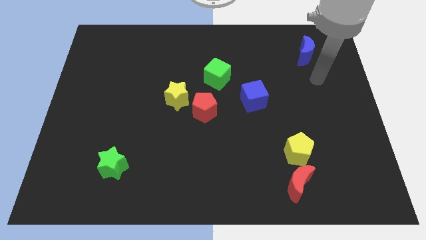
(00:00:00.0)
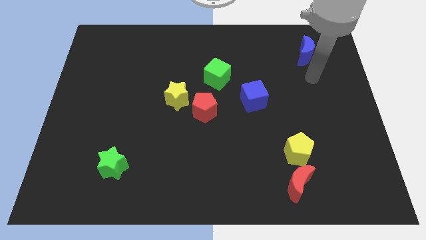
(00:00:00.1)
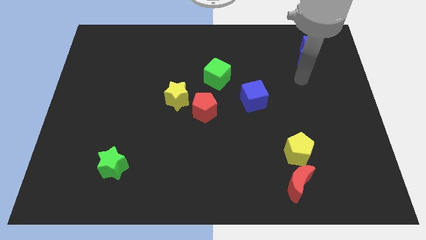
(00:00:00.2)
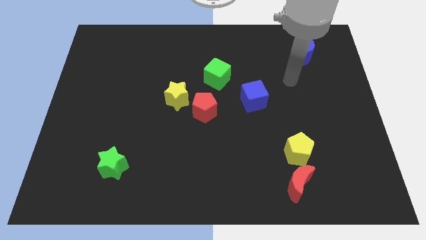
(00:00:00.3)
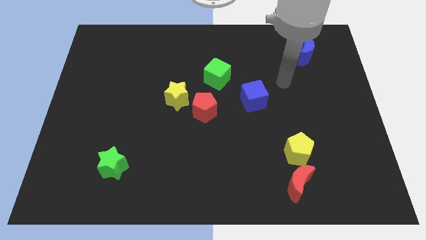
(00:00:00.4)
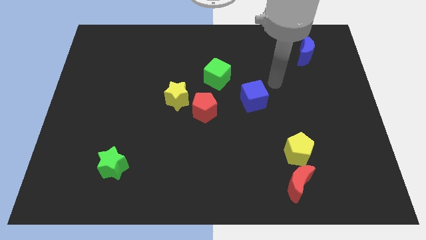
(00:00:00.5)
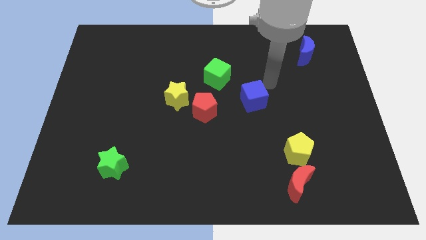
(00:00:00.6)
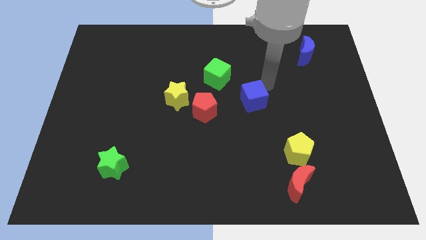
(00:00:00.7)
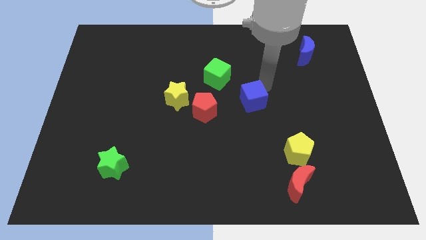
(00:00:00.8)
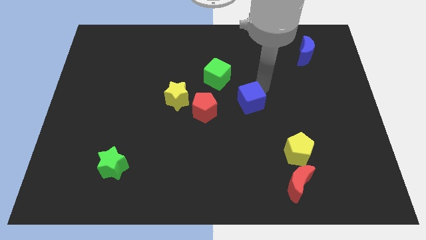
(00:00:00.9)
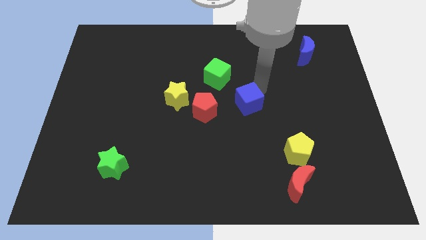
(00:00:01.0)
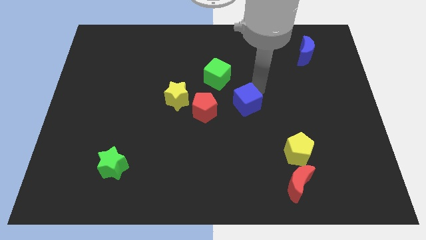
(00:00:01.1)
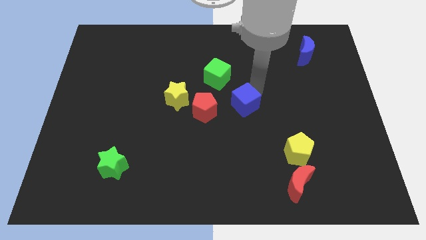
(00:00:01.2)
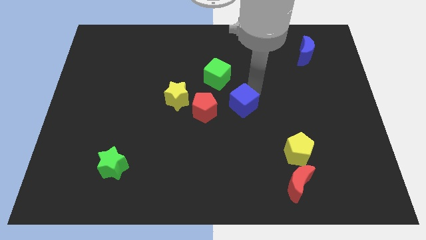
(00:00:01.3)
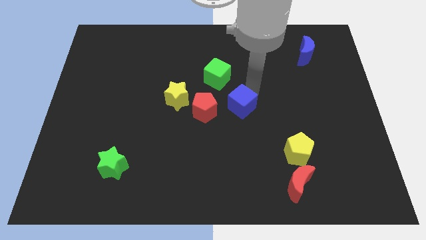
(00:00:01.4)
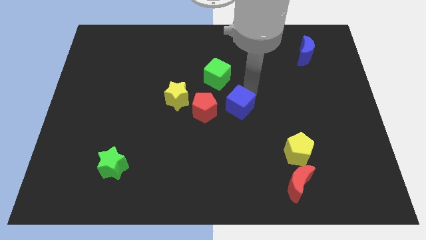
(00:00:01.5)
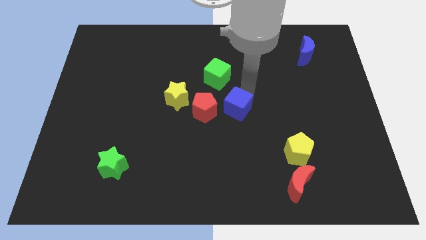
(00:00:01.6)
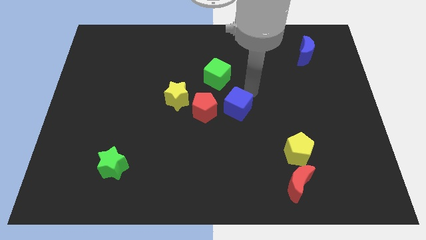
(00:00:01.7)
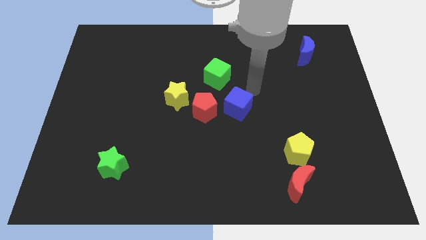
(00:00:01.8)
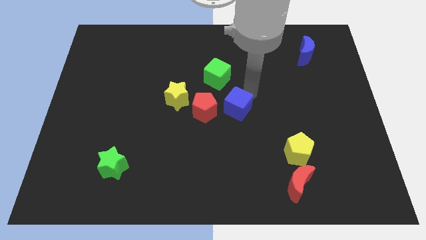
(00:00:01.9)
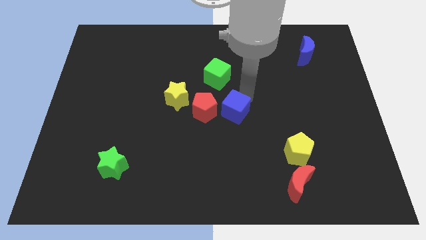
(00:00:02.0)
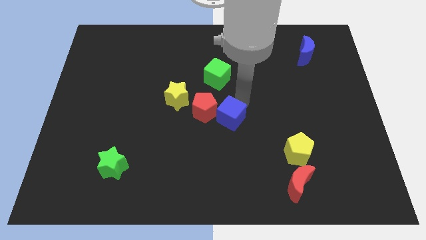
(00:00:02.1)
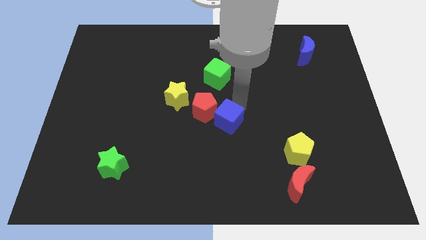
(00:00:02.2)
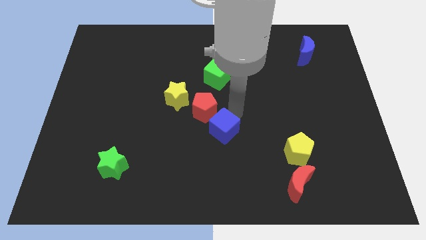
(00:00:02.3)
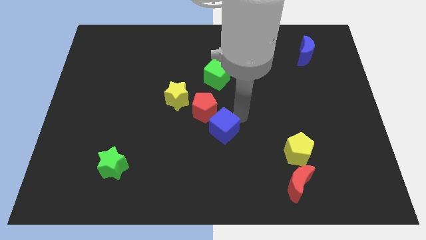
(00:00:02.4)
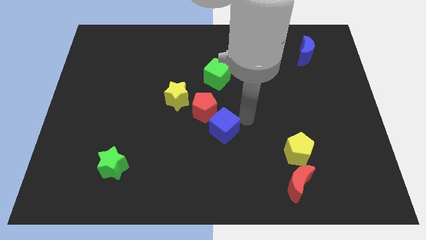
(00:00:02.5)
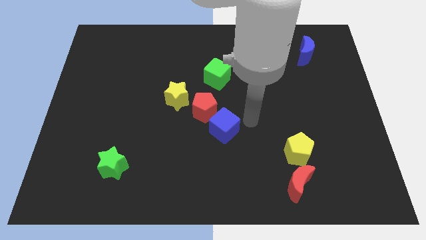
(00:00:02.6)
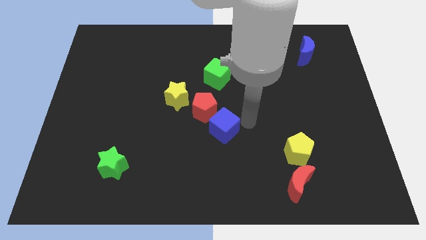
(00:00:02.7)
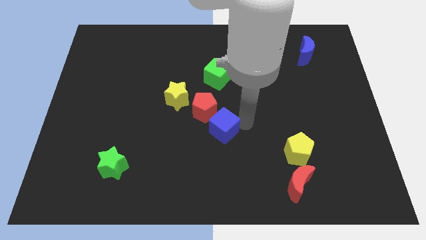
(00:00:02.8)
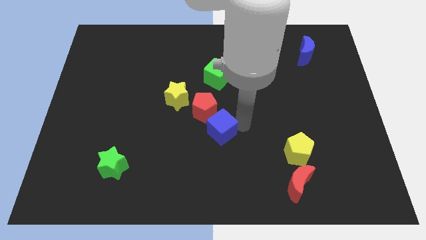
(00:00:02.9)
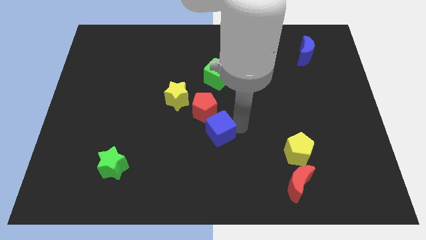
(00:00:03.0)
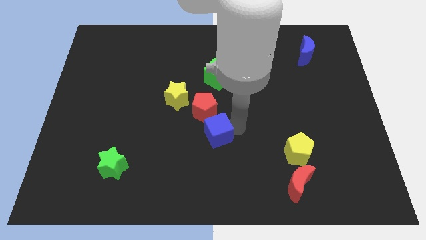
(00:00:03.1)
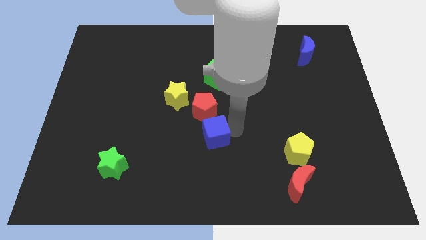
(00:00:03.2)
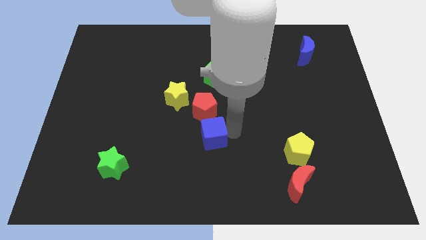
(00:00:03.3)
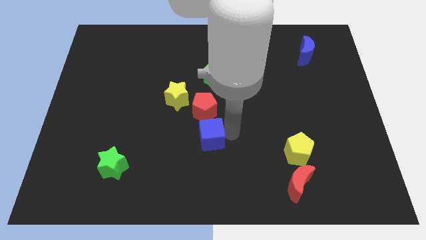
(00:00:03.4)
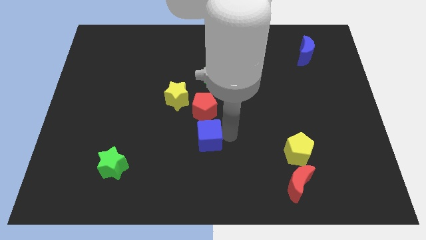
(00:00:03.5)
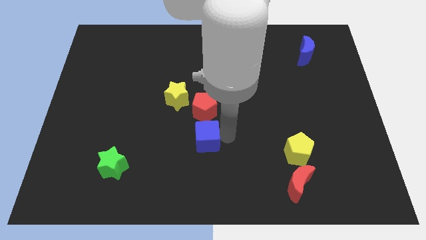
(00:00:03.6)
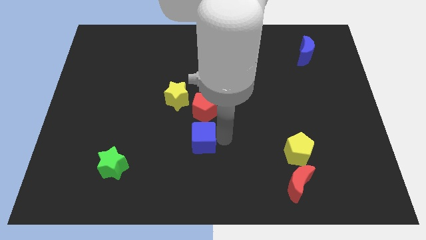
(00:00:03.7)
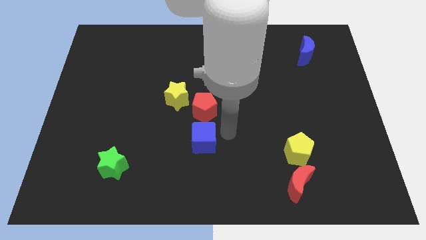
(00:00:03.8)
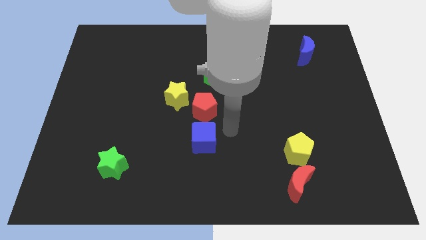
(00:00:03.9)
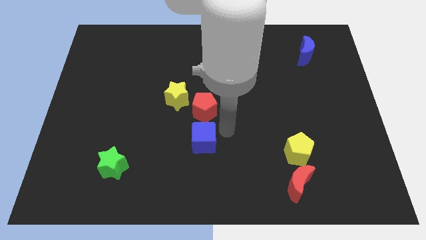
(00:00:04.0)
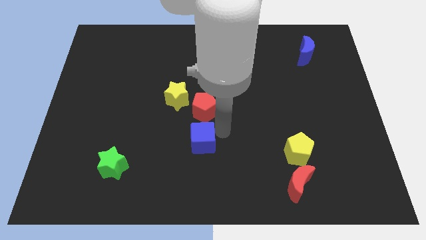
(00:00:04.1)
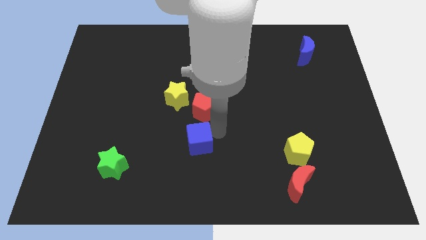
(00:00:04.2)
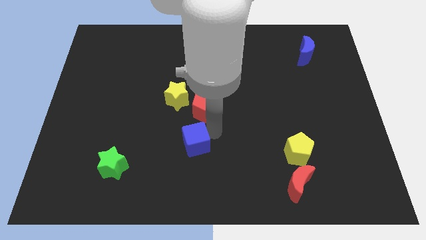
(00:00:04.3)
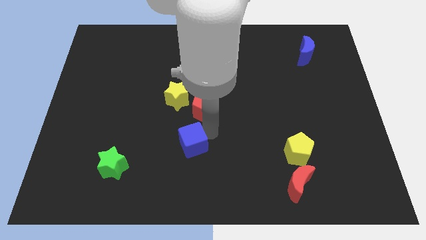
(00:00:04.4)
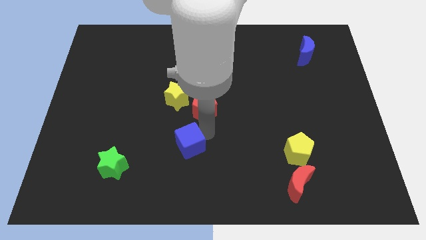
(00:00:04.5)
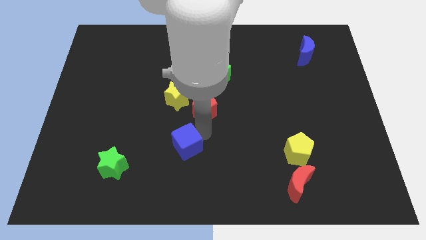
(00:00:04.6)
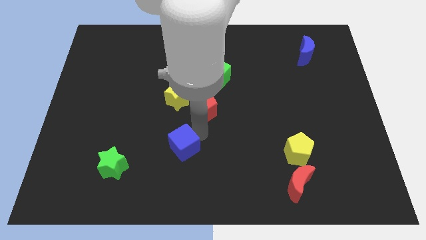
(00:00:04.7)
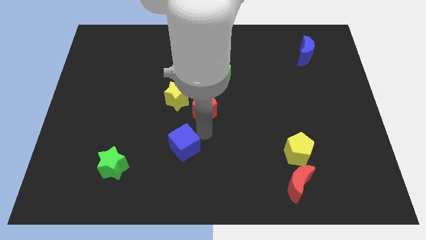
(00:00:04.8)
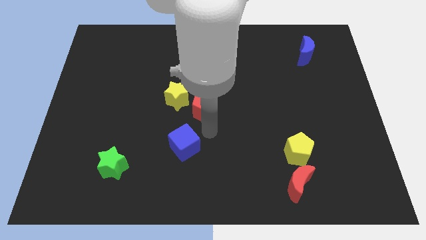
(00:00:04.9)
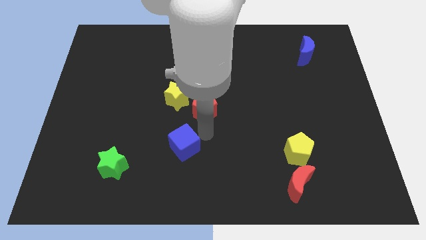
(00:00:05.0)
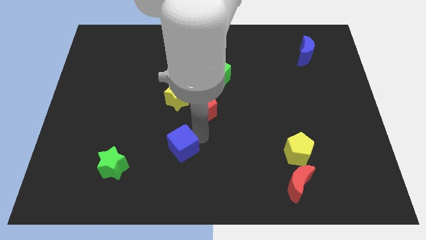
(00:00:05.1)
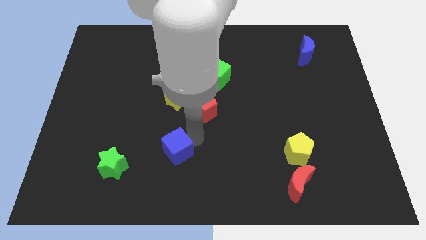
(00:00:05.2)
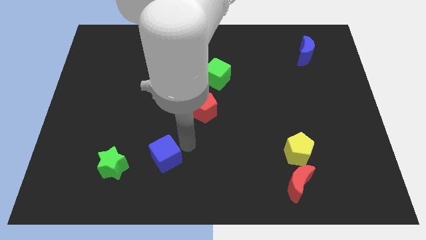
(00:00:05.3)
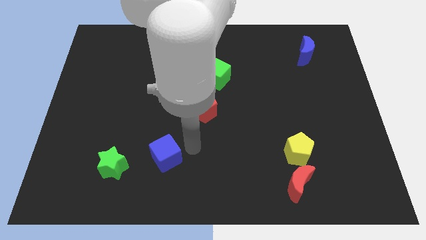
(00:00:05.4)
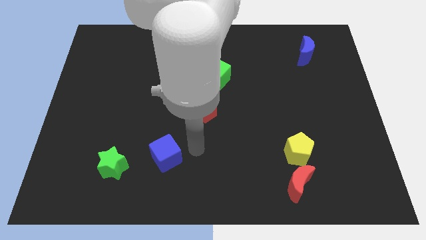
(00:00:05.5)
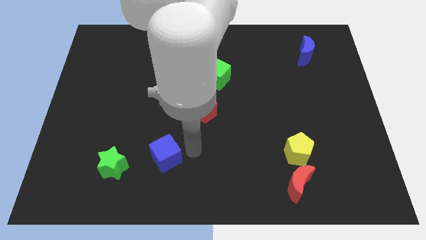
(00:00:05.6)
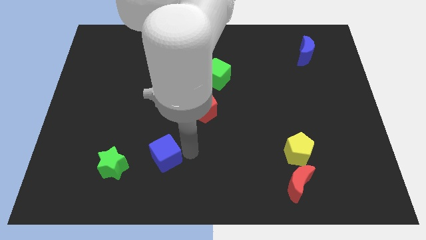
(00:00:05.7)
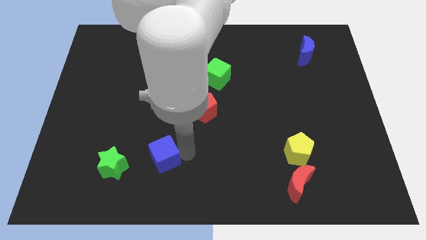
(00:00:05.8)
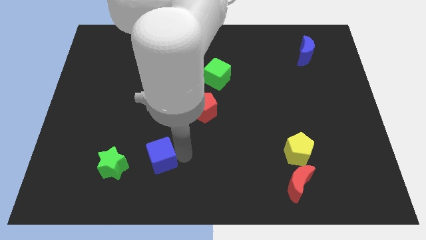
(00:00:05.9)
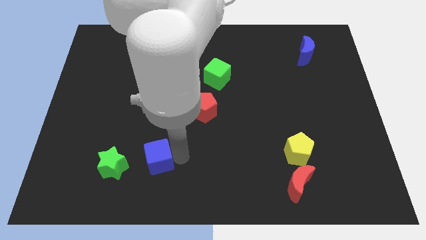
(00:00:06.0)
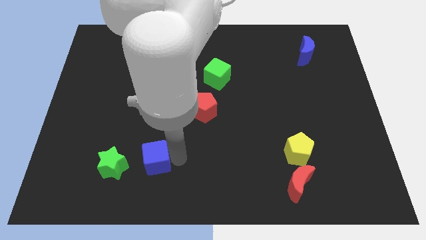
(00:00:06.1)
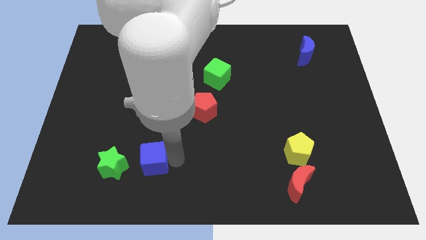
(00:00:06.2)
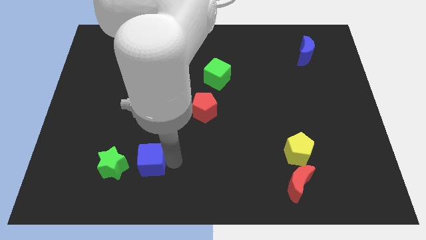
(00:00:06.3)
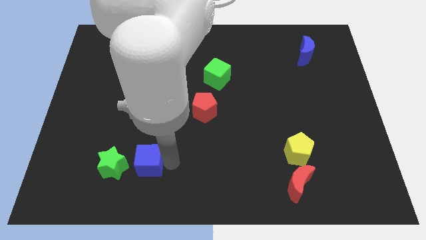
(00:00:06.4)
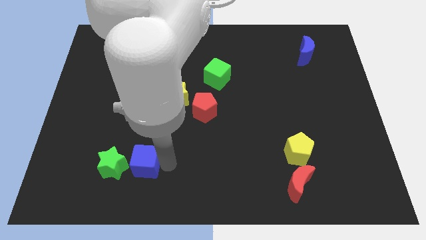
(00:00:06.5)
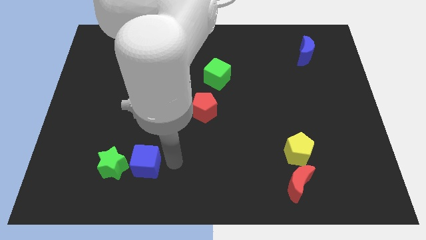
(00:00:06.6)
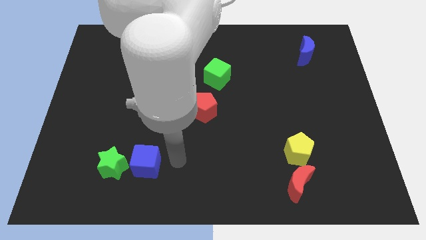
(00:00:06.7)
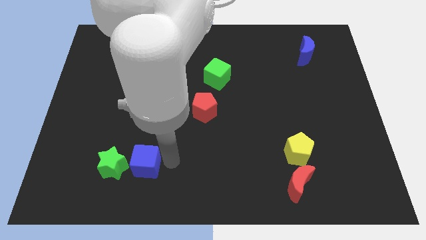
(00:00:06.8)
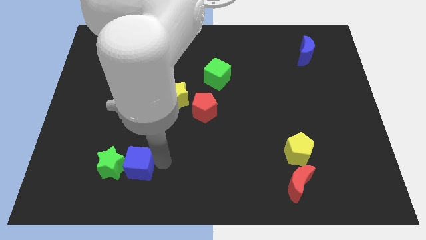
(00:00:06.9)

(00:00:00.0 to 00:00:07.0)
put the blue cube next to the green star
